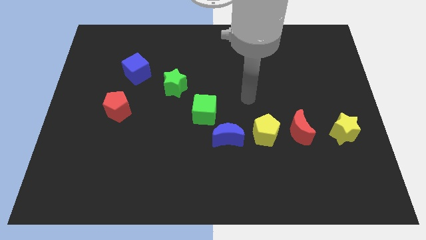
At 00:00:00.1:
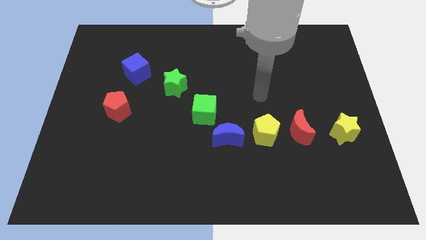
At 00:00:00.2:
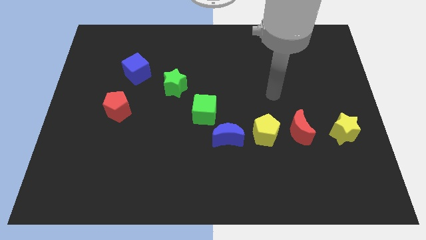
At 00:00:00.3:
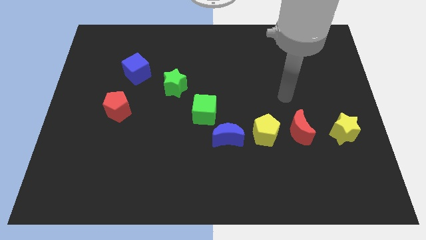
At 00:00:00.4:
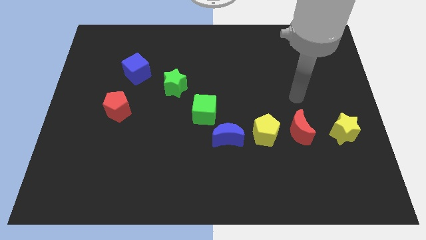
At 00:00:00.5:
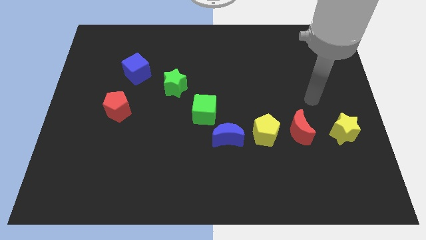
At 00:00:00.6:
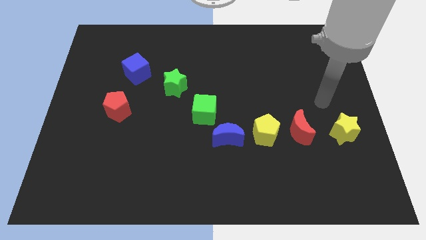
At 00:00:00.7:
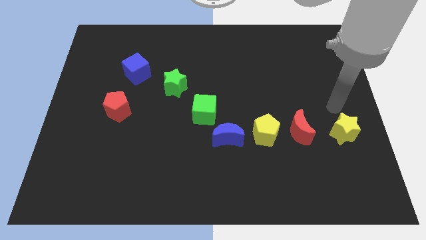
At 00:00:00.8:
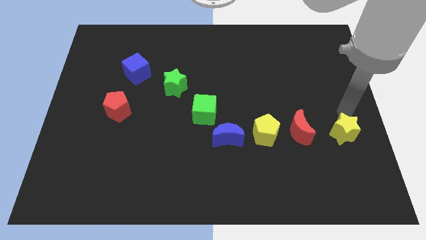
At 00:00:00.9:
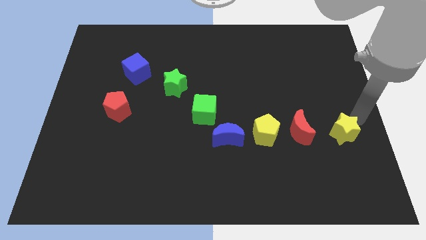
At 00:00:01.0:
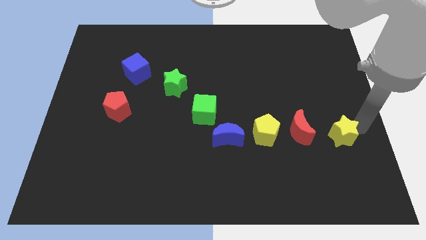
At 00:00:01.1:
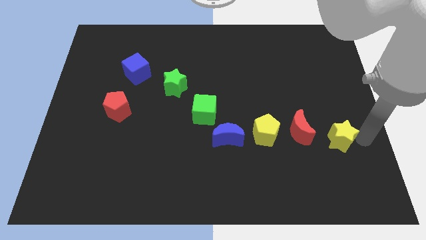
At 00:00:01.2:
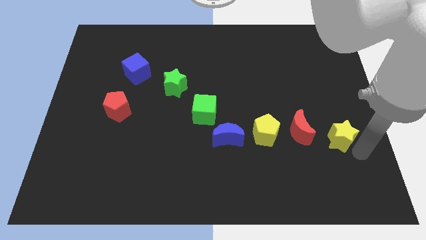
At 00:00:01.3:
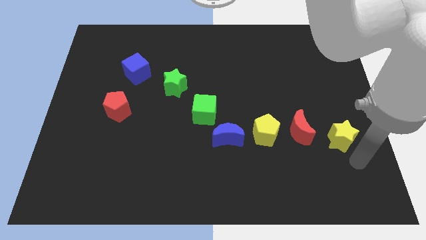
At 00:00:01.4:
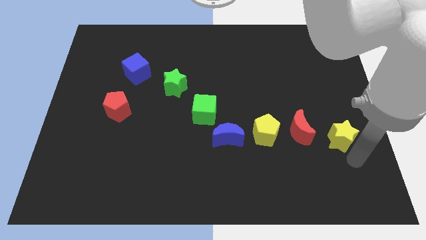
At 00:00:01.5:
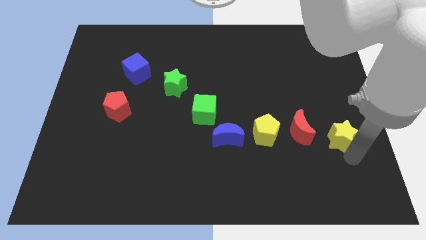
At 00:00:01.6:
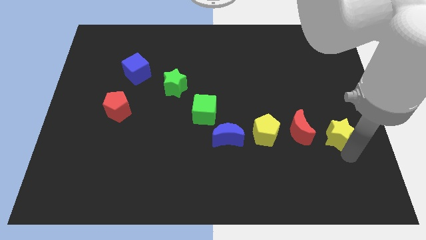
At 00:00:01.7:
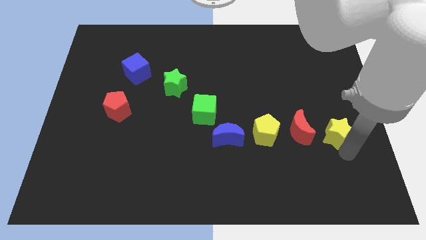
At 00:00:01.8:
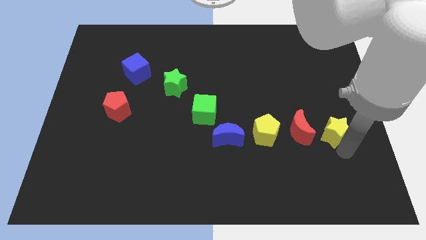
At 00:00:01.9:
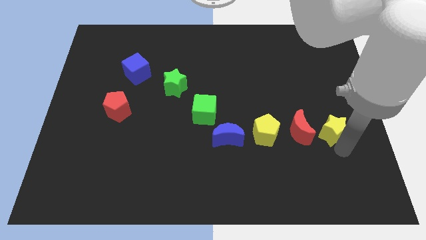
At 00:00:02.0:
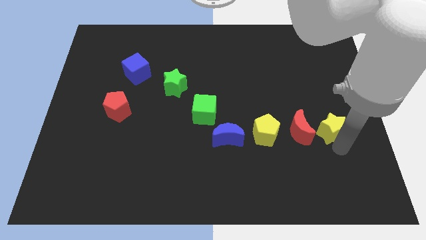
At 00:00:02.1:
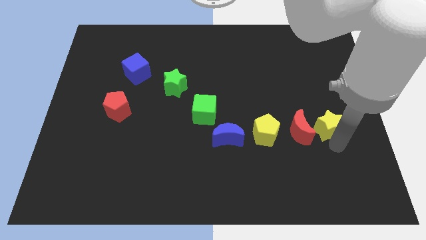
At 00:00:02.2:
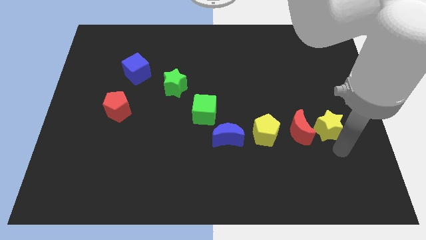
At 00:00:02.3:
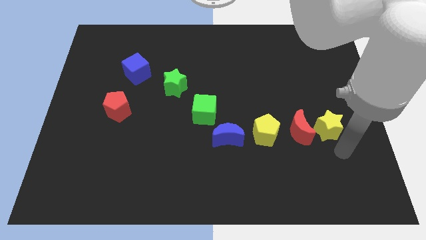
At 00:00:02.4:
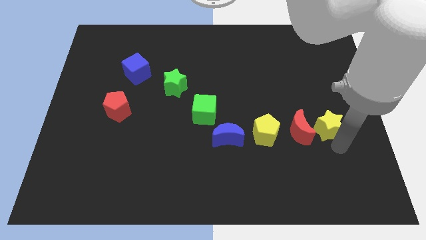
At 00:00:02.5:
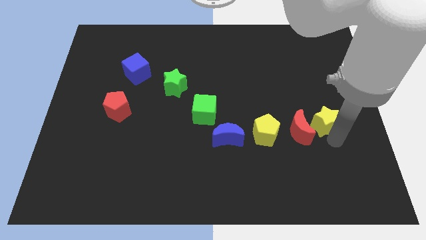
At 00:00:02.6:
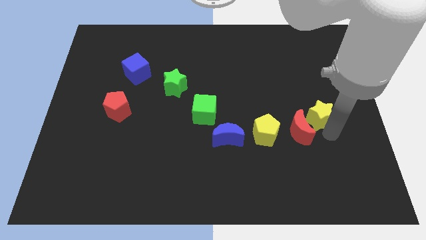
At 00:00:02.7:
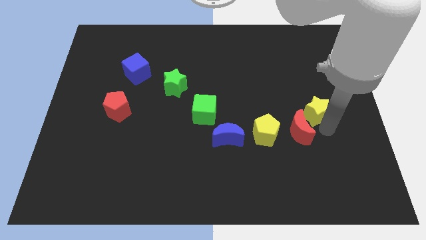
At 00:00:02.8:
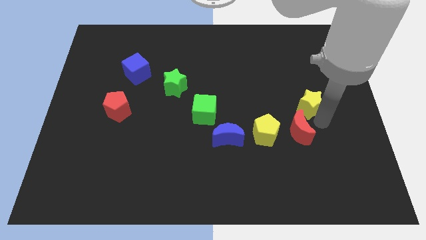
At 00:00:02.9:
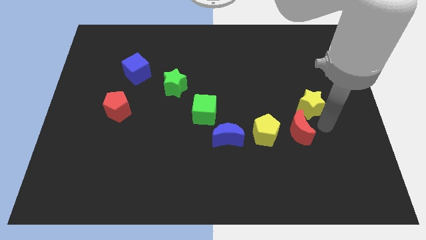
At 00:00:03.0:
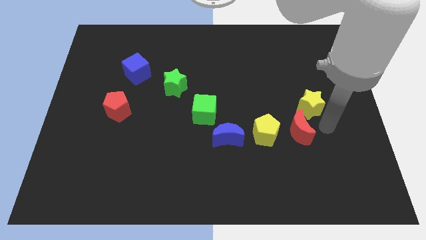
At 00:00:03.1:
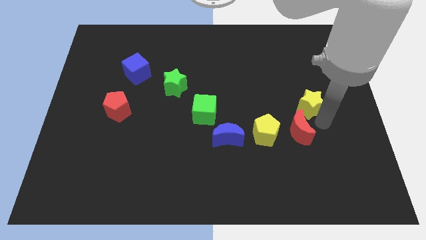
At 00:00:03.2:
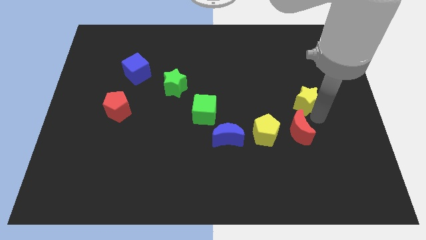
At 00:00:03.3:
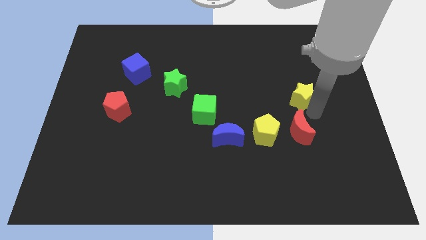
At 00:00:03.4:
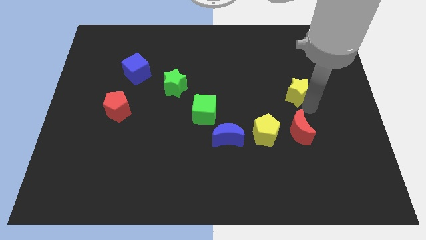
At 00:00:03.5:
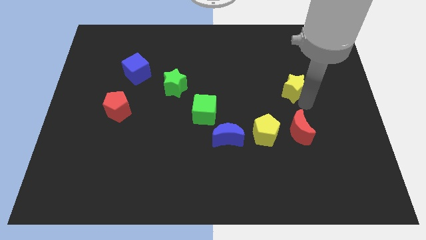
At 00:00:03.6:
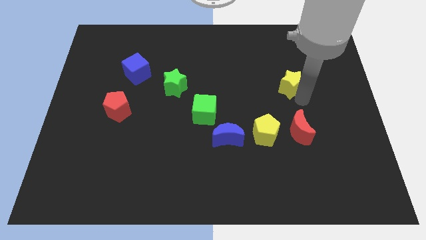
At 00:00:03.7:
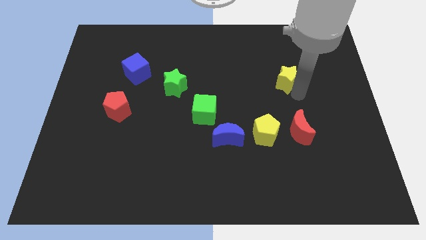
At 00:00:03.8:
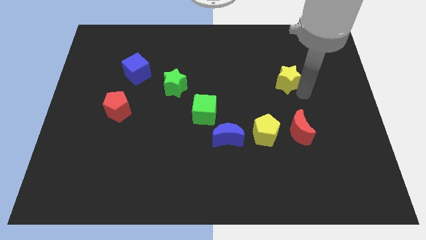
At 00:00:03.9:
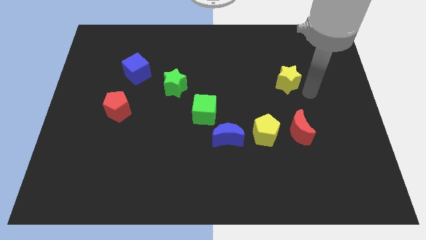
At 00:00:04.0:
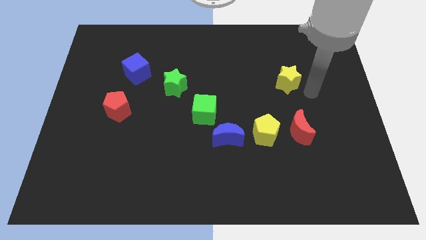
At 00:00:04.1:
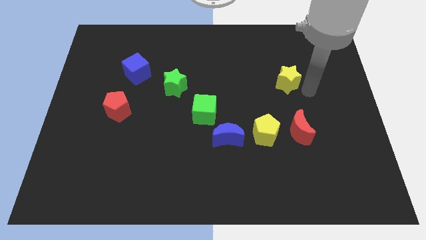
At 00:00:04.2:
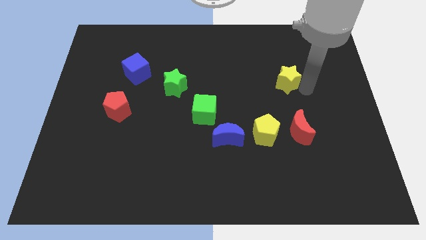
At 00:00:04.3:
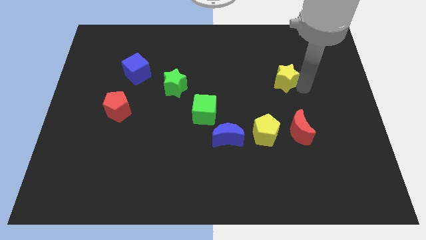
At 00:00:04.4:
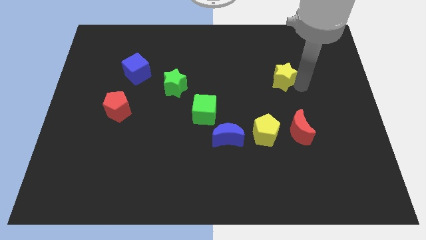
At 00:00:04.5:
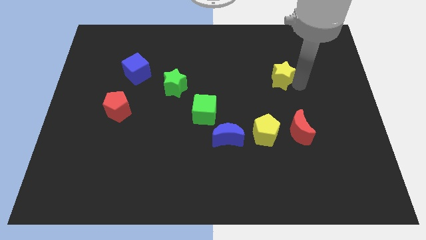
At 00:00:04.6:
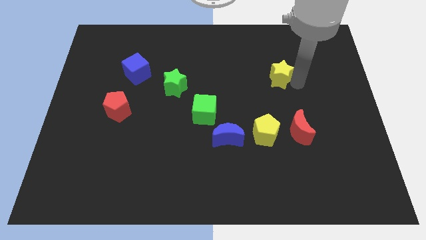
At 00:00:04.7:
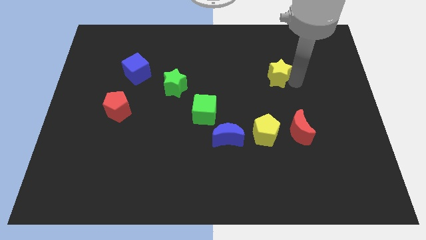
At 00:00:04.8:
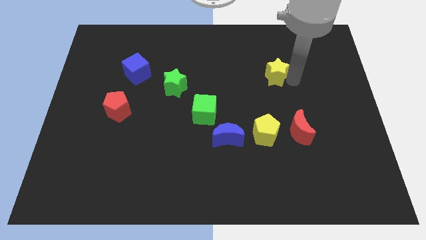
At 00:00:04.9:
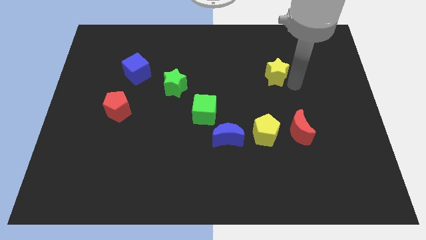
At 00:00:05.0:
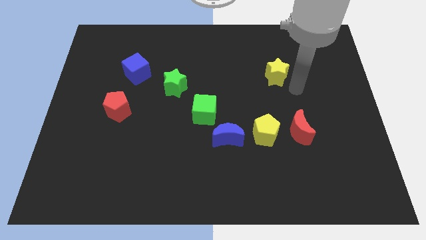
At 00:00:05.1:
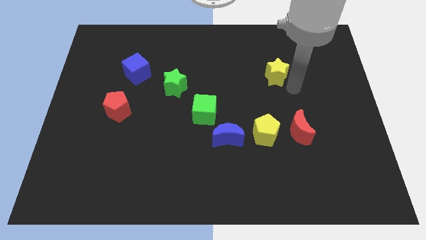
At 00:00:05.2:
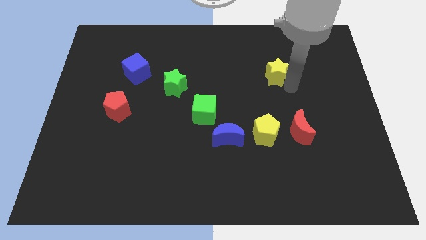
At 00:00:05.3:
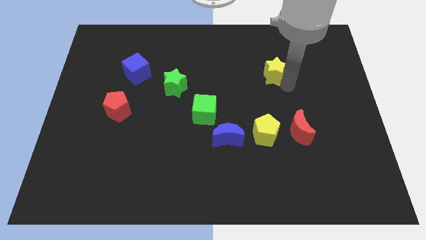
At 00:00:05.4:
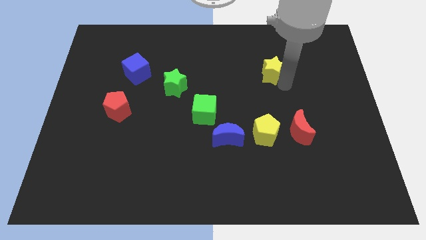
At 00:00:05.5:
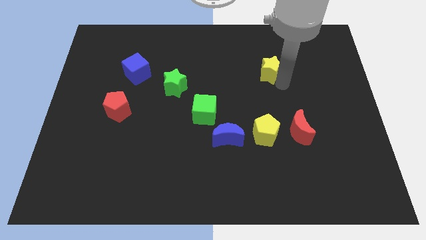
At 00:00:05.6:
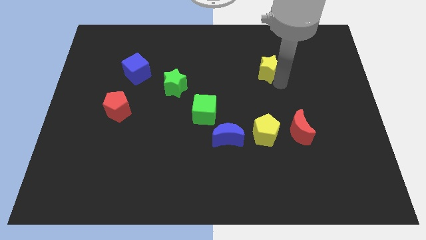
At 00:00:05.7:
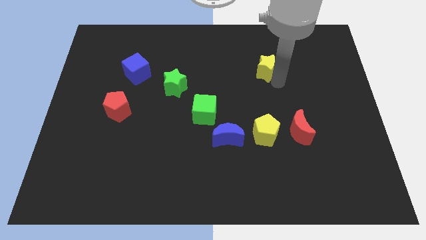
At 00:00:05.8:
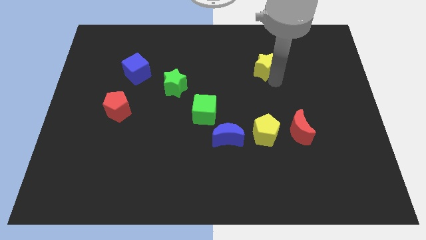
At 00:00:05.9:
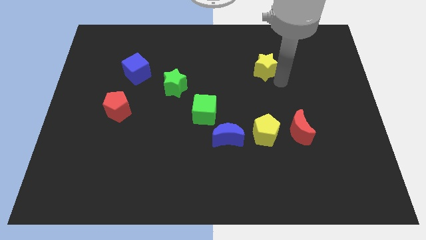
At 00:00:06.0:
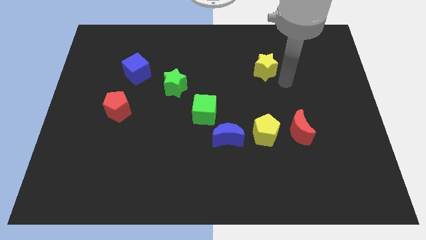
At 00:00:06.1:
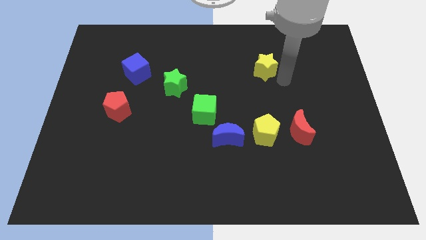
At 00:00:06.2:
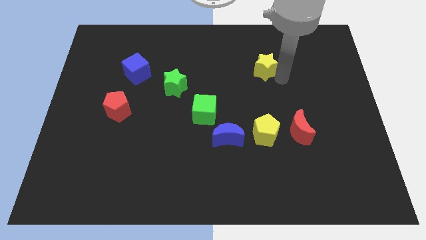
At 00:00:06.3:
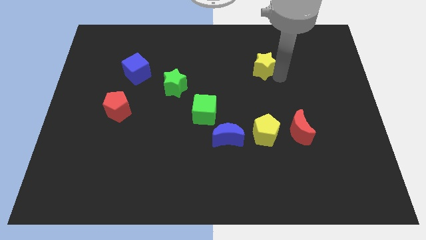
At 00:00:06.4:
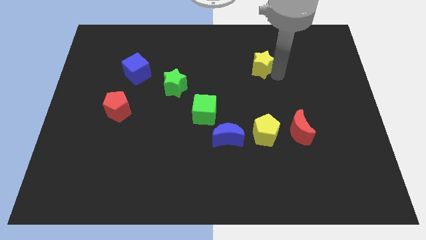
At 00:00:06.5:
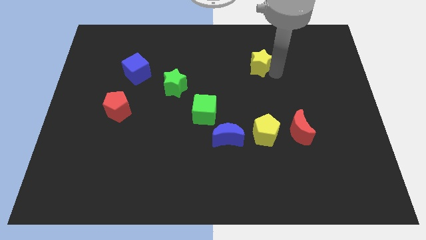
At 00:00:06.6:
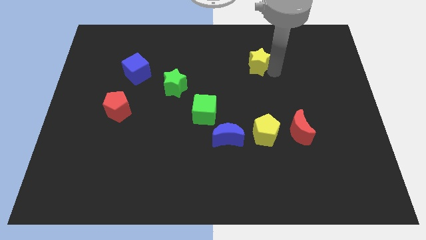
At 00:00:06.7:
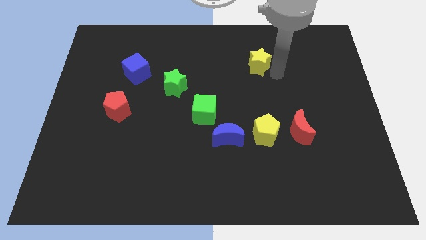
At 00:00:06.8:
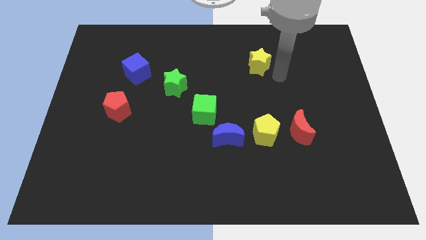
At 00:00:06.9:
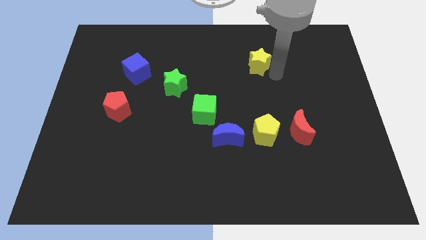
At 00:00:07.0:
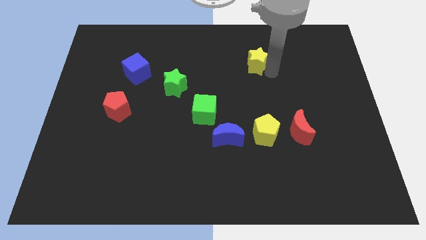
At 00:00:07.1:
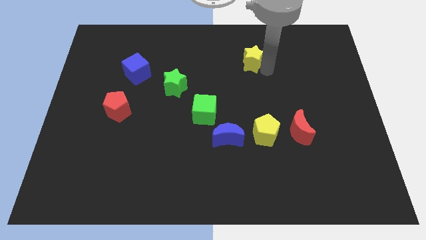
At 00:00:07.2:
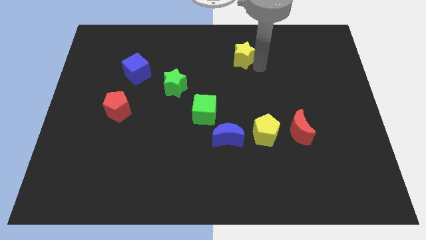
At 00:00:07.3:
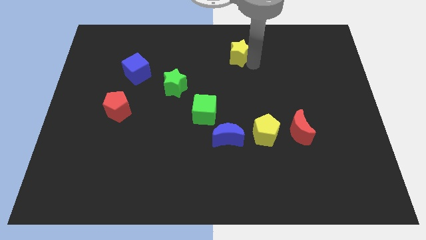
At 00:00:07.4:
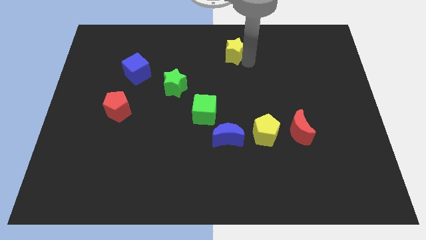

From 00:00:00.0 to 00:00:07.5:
move the yellow star to the top side
